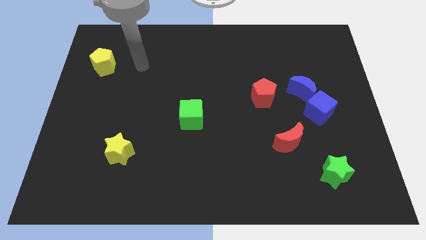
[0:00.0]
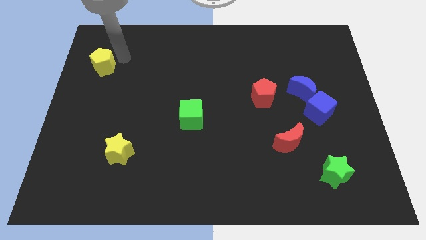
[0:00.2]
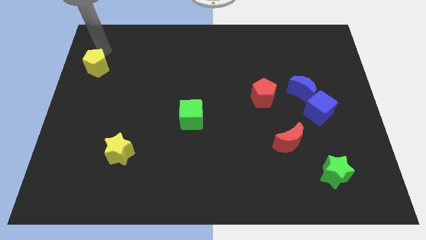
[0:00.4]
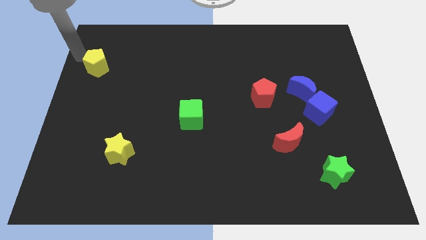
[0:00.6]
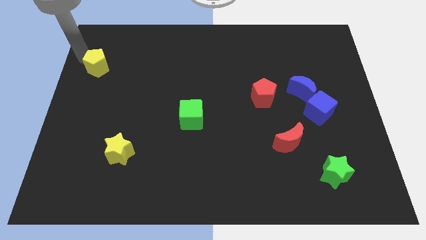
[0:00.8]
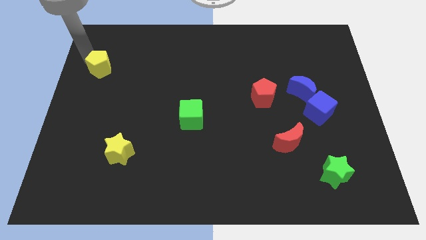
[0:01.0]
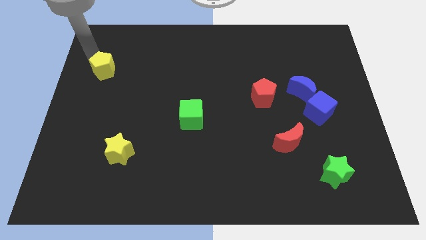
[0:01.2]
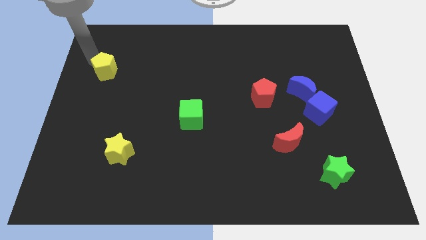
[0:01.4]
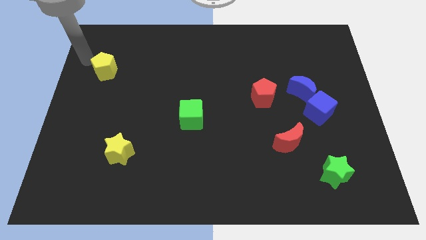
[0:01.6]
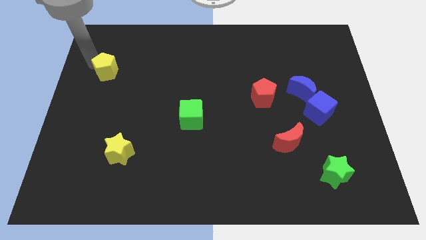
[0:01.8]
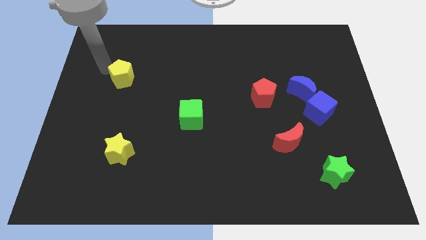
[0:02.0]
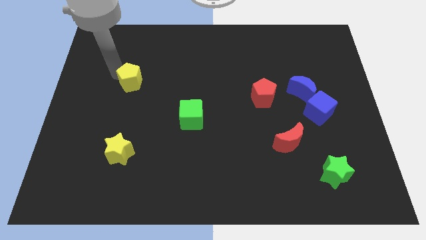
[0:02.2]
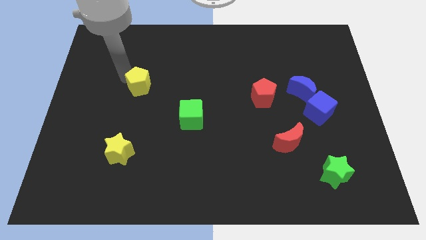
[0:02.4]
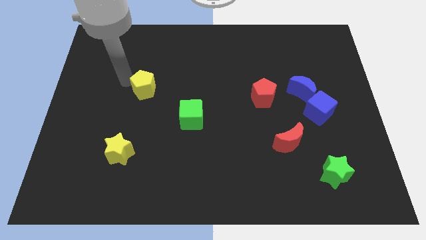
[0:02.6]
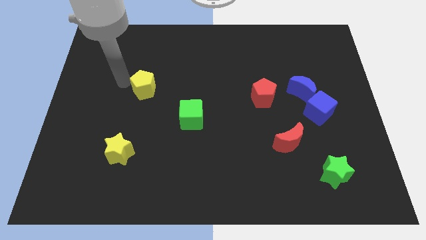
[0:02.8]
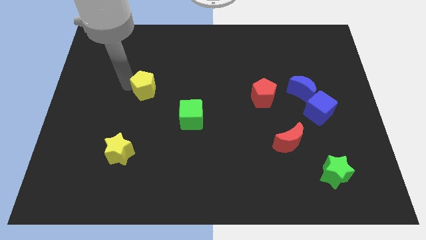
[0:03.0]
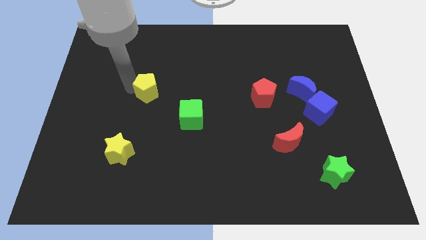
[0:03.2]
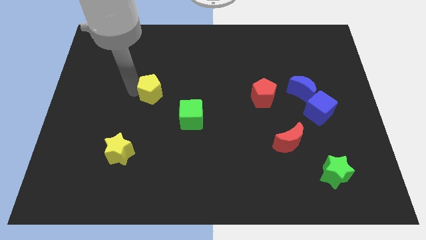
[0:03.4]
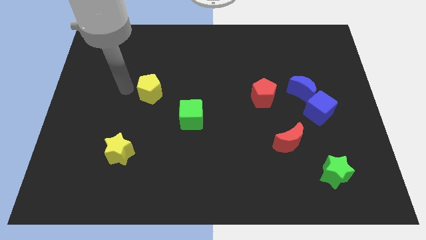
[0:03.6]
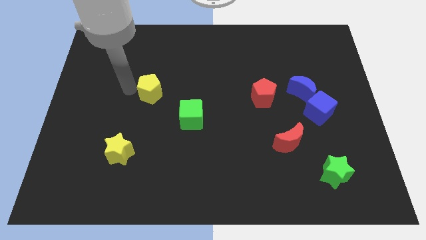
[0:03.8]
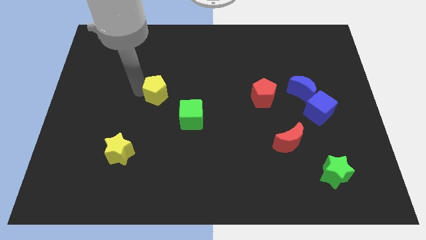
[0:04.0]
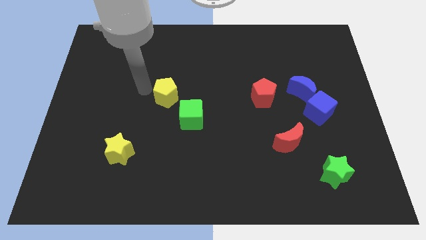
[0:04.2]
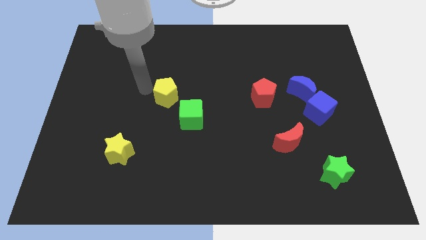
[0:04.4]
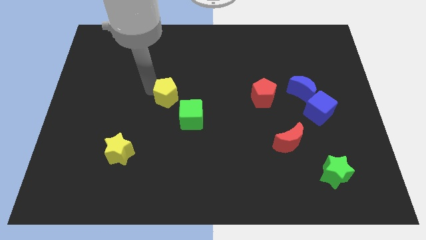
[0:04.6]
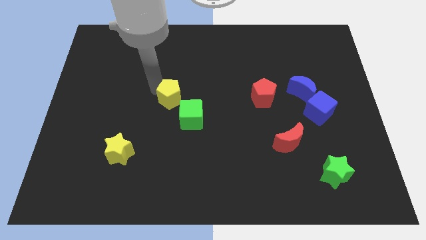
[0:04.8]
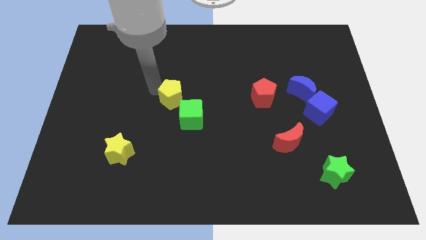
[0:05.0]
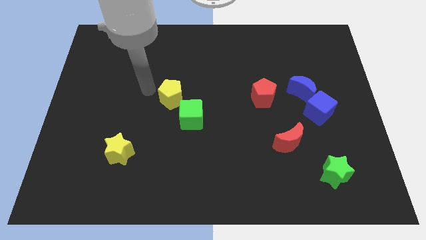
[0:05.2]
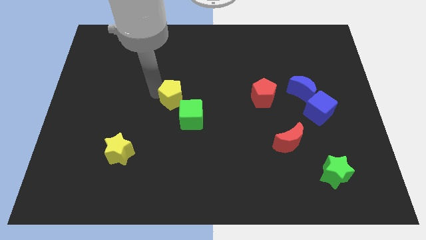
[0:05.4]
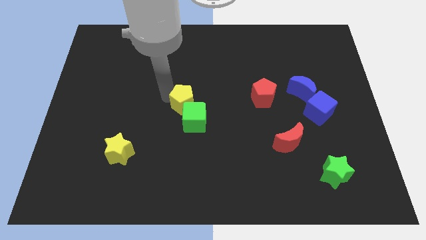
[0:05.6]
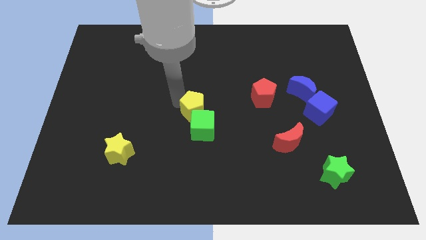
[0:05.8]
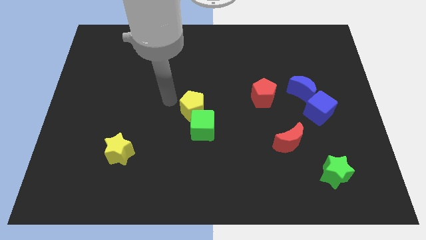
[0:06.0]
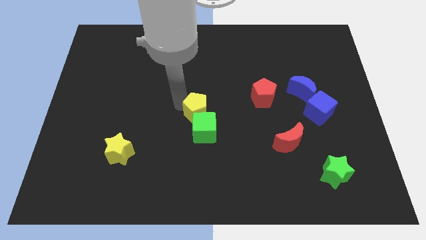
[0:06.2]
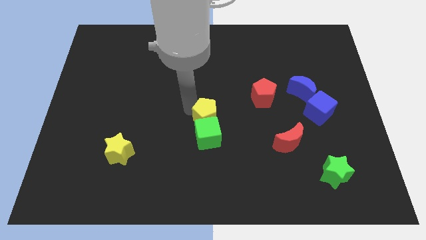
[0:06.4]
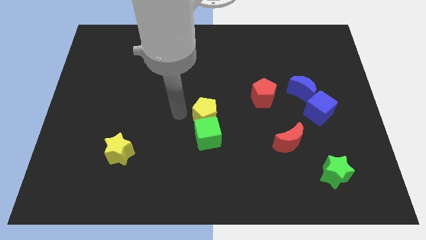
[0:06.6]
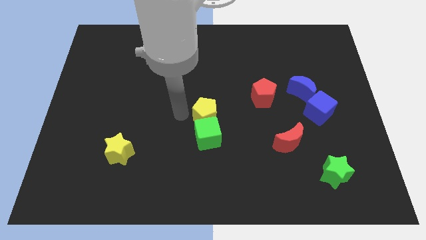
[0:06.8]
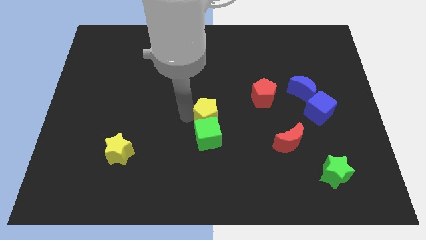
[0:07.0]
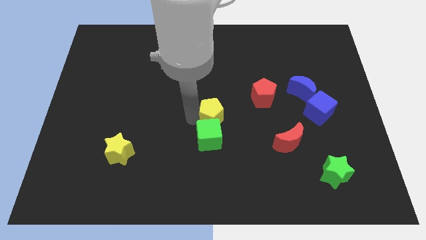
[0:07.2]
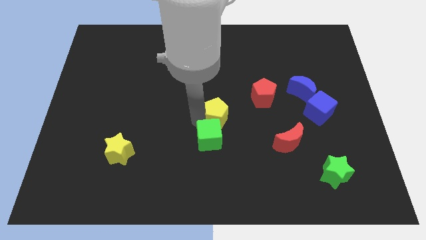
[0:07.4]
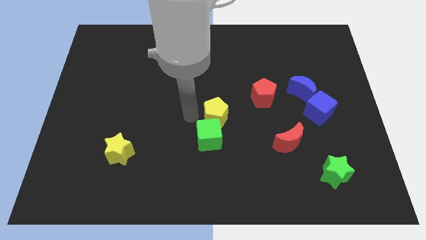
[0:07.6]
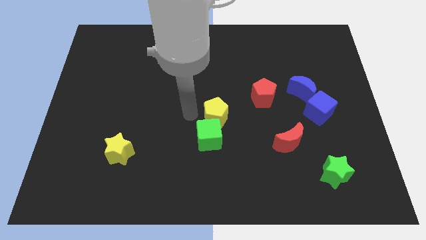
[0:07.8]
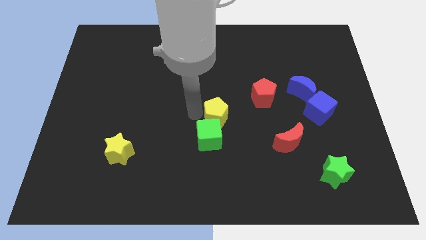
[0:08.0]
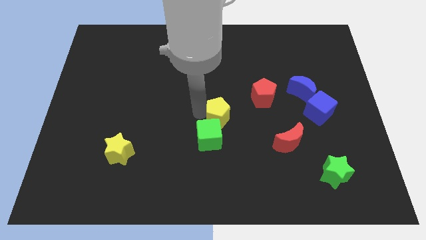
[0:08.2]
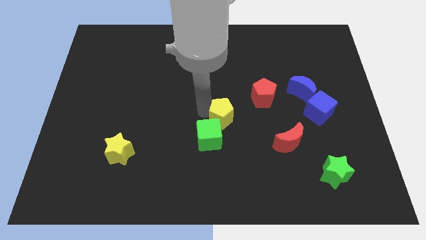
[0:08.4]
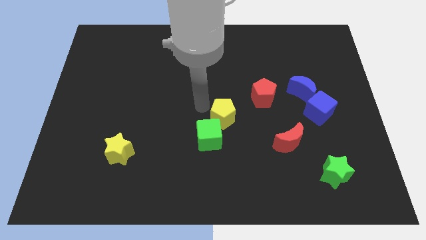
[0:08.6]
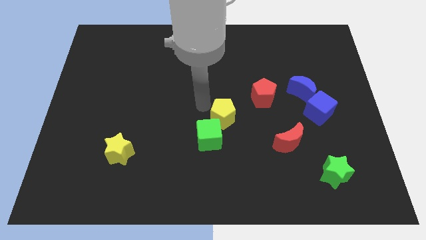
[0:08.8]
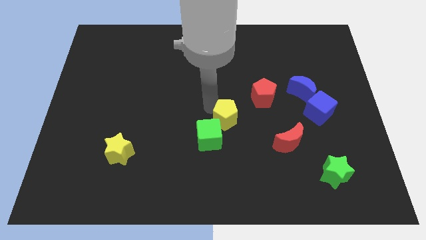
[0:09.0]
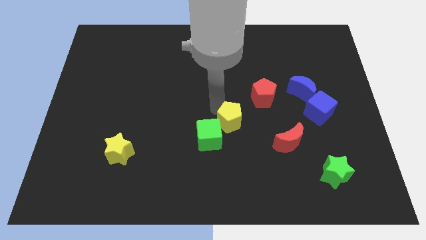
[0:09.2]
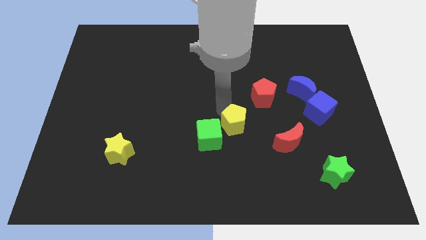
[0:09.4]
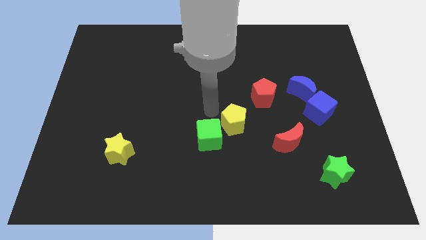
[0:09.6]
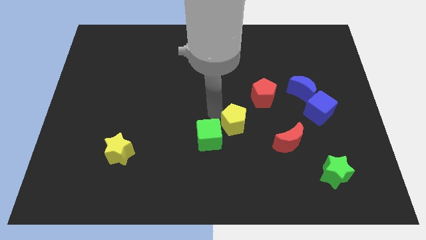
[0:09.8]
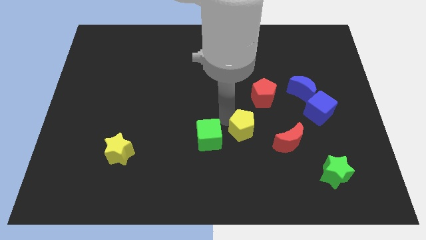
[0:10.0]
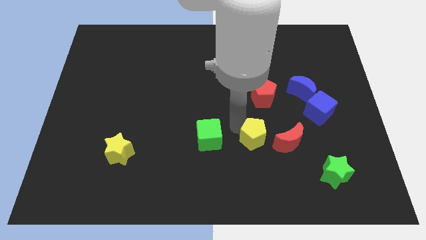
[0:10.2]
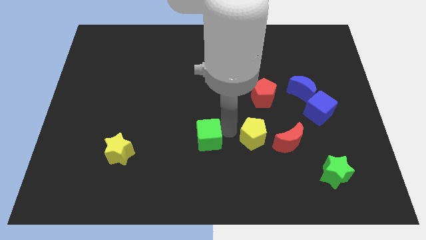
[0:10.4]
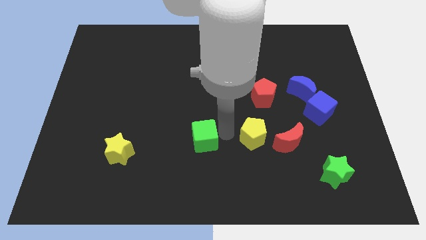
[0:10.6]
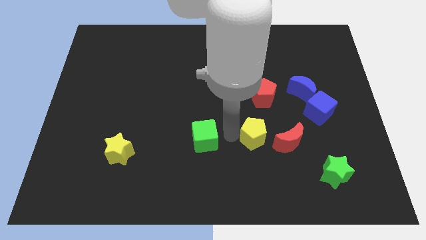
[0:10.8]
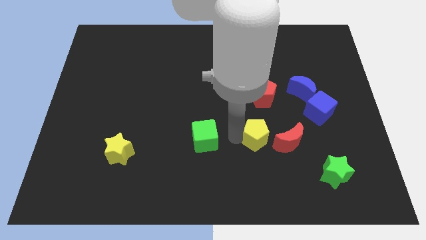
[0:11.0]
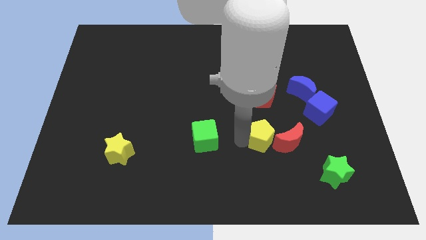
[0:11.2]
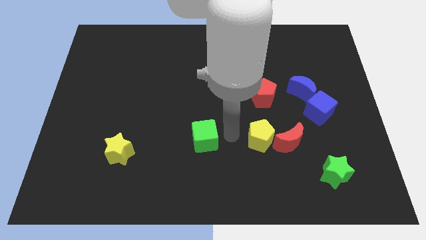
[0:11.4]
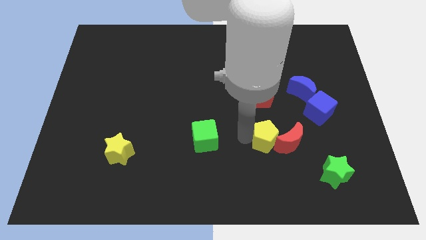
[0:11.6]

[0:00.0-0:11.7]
move the yellow pentagon close to the red moon
